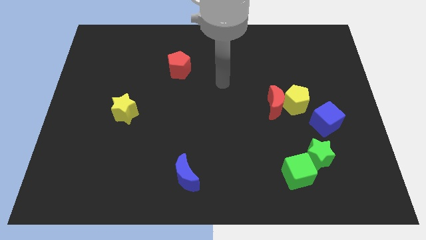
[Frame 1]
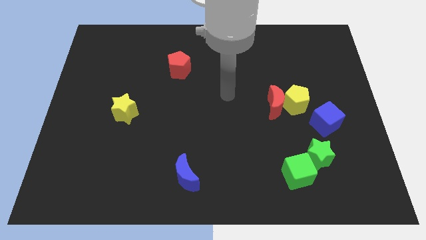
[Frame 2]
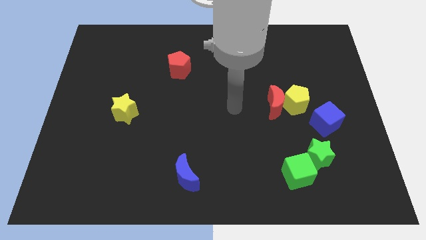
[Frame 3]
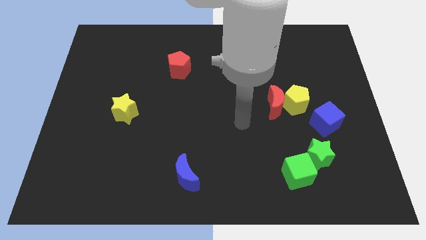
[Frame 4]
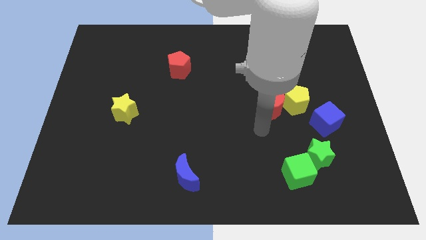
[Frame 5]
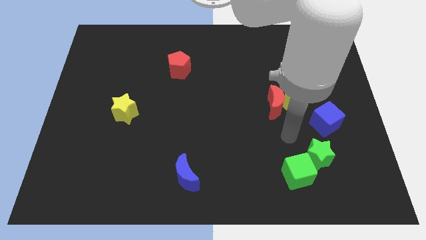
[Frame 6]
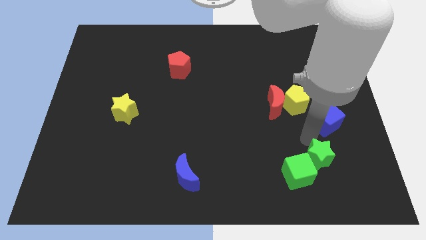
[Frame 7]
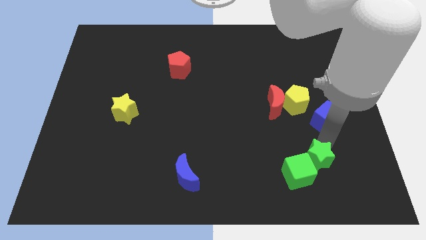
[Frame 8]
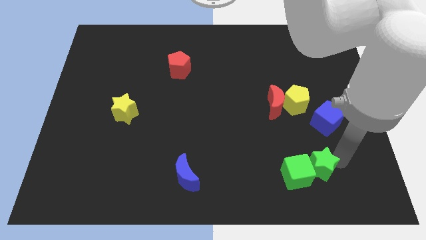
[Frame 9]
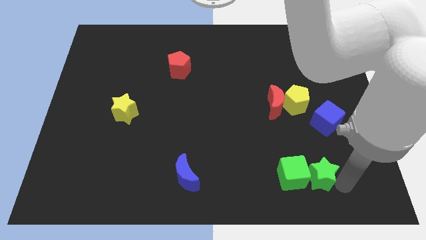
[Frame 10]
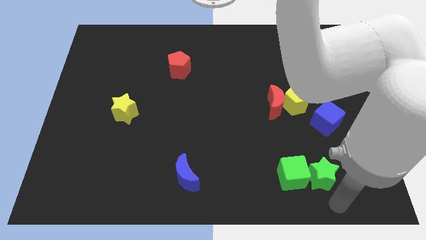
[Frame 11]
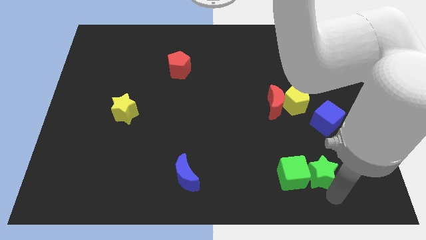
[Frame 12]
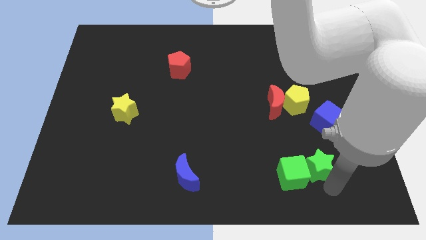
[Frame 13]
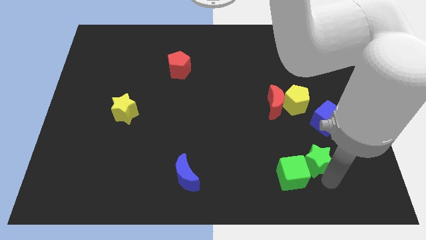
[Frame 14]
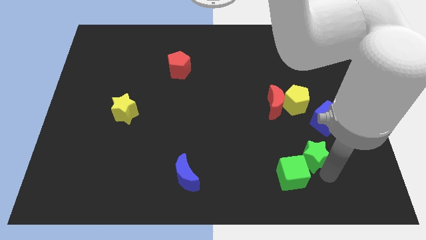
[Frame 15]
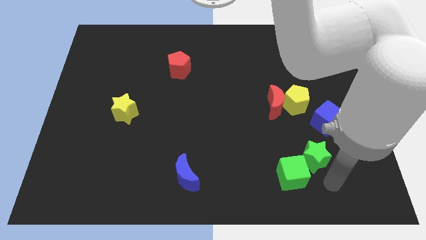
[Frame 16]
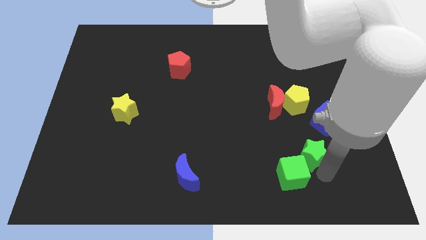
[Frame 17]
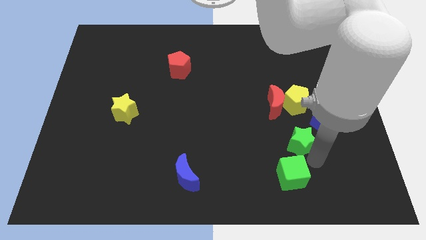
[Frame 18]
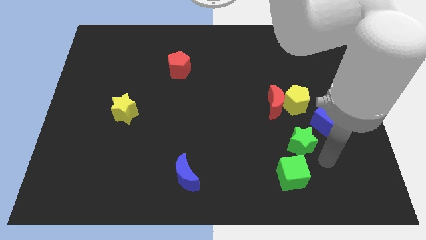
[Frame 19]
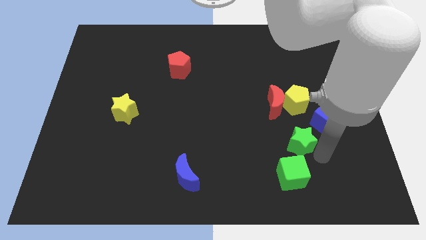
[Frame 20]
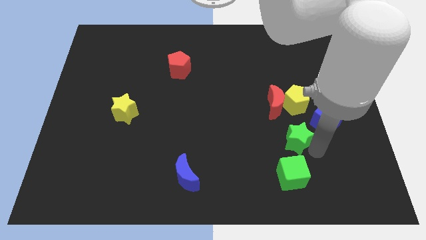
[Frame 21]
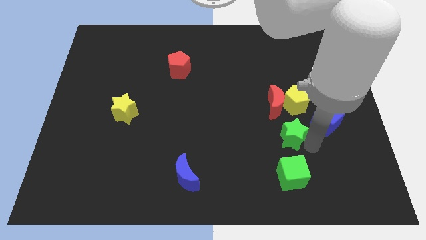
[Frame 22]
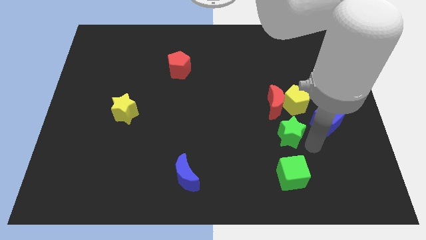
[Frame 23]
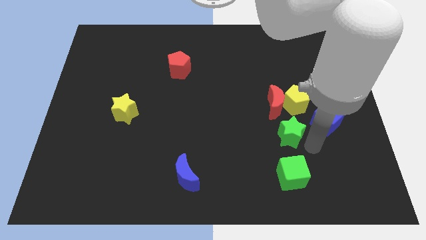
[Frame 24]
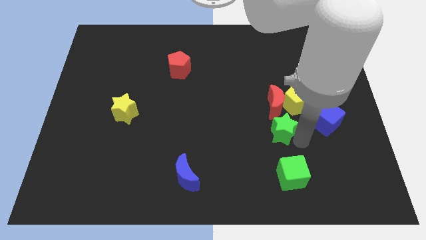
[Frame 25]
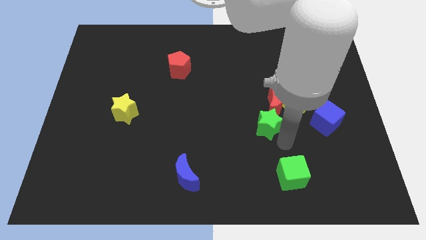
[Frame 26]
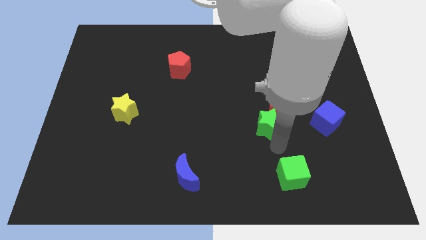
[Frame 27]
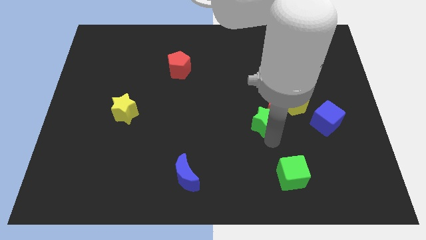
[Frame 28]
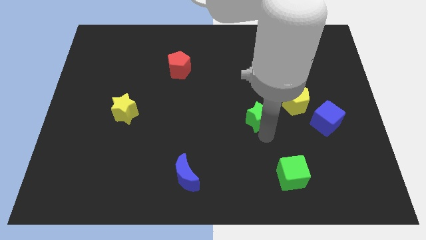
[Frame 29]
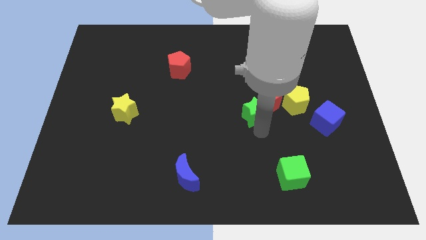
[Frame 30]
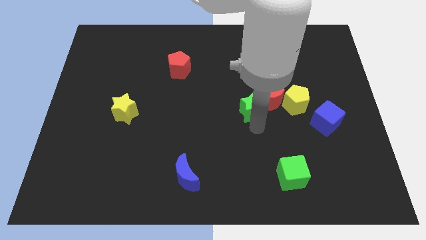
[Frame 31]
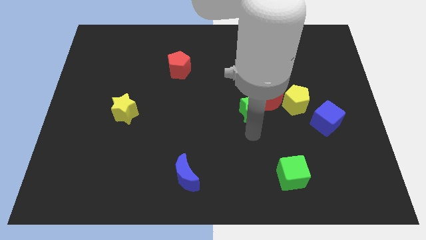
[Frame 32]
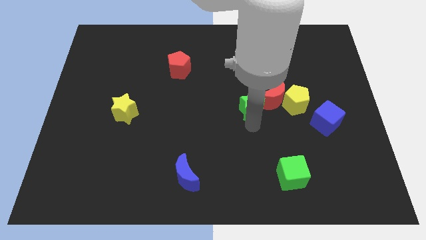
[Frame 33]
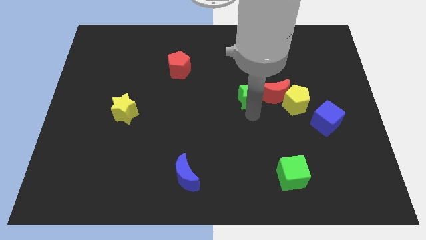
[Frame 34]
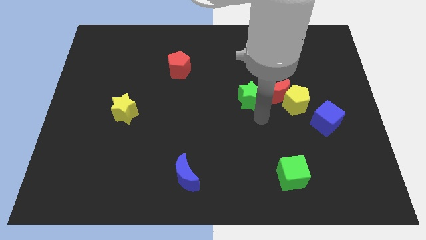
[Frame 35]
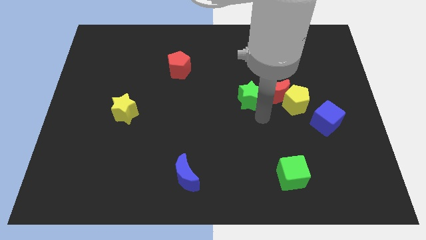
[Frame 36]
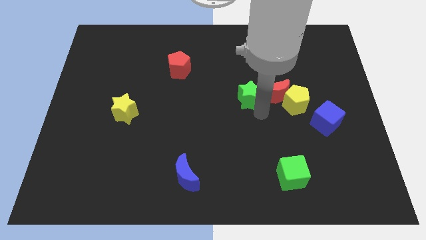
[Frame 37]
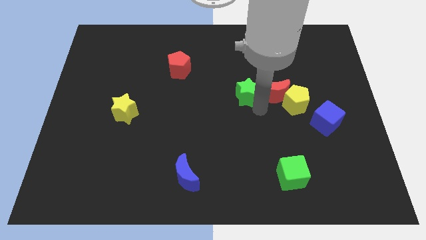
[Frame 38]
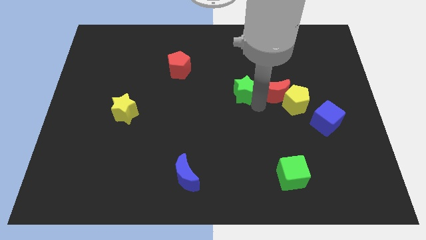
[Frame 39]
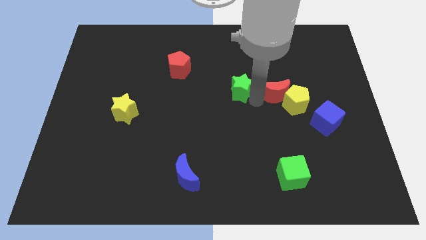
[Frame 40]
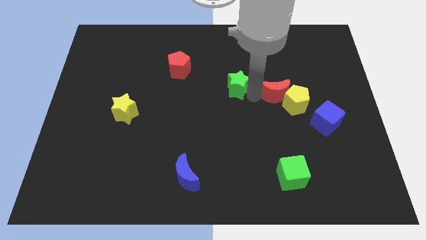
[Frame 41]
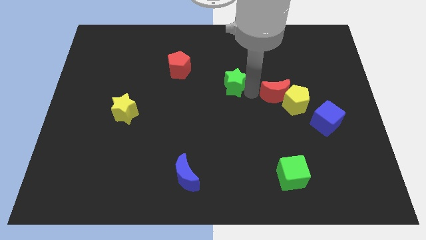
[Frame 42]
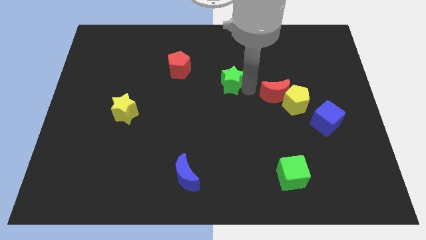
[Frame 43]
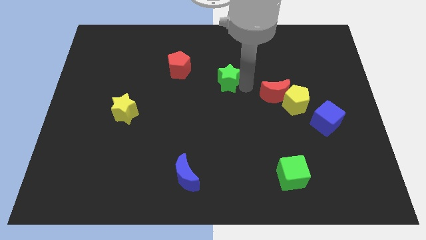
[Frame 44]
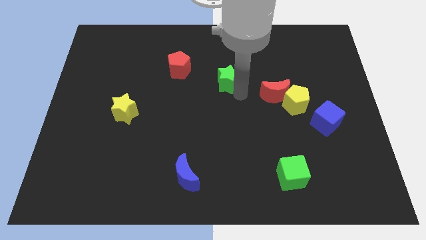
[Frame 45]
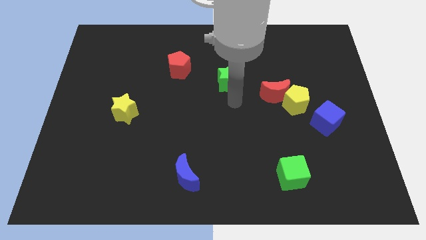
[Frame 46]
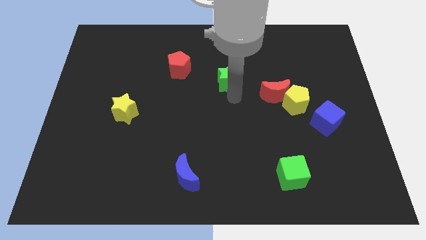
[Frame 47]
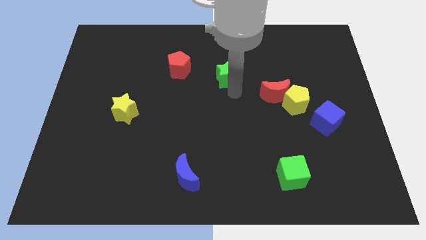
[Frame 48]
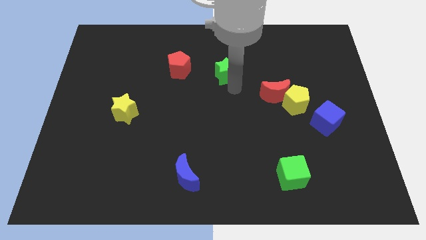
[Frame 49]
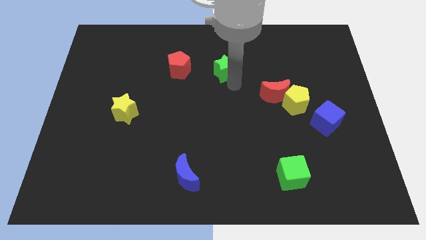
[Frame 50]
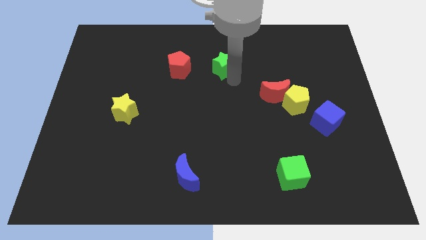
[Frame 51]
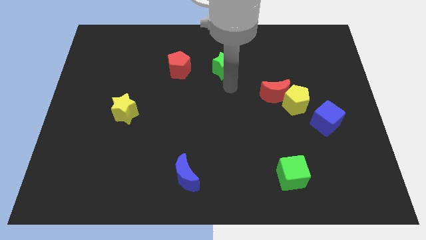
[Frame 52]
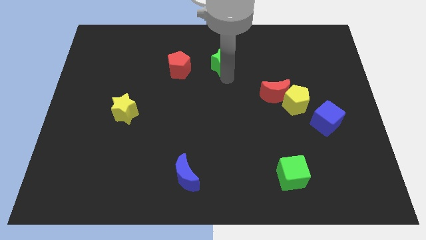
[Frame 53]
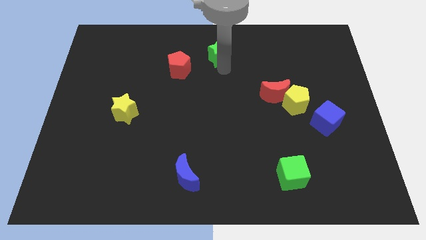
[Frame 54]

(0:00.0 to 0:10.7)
push the green star to the top

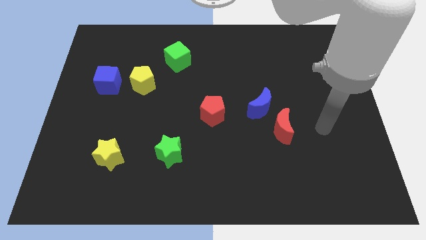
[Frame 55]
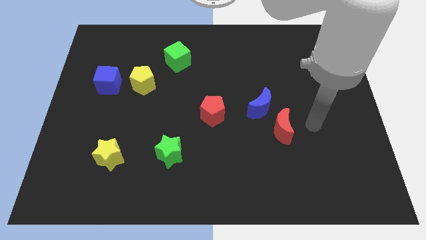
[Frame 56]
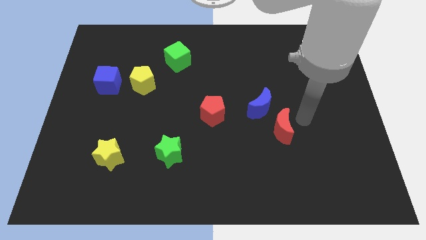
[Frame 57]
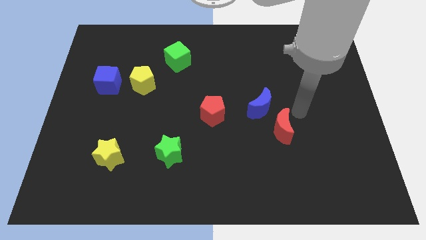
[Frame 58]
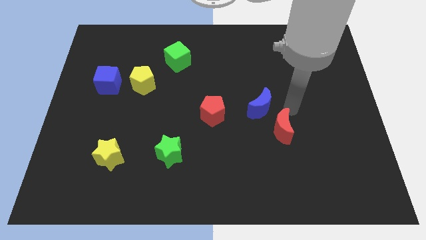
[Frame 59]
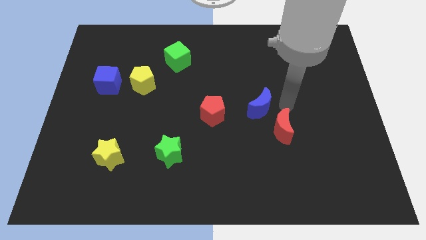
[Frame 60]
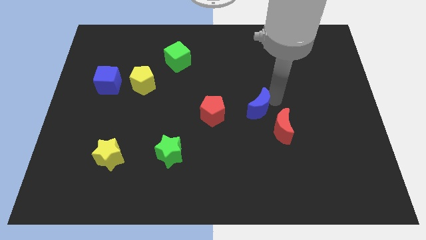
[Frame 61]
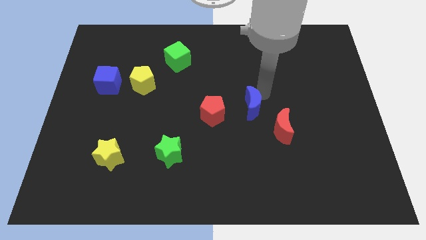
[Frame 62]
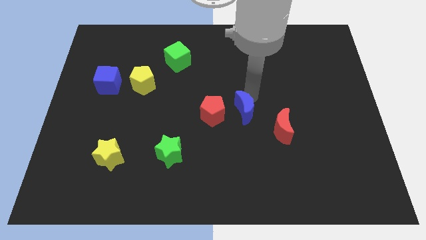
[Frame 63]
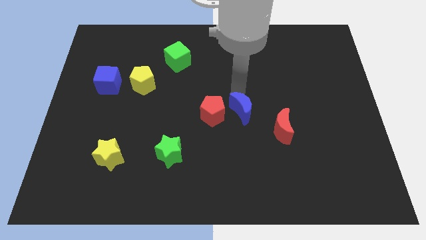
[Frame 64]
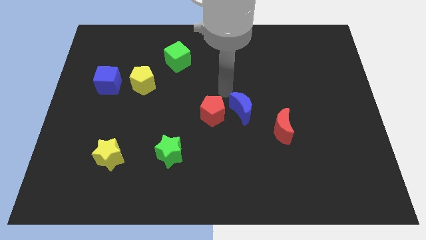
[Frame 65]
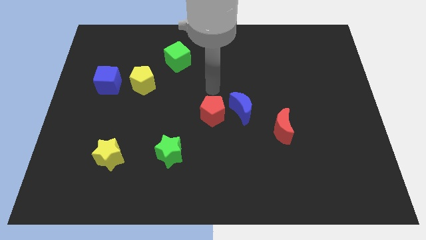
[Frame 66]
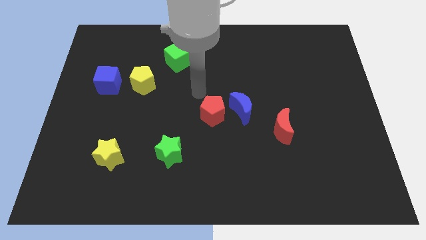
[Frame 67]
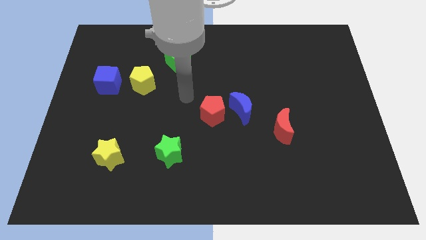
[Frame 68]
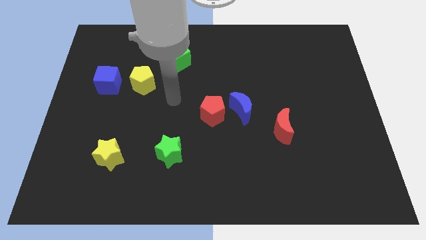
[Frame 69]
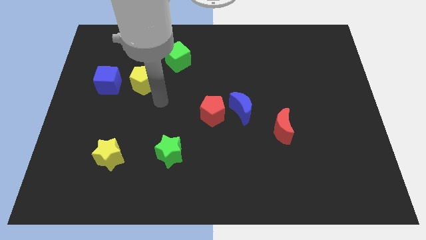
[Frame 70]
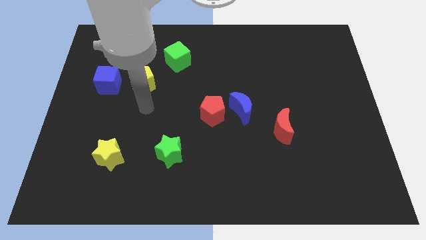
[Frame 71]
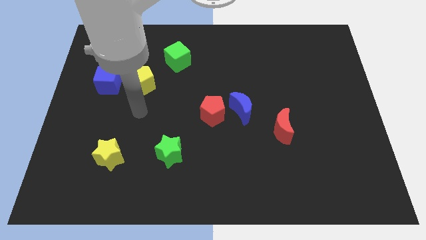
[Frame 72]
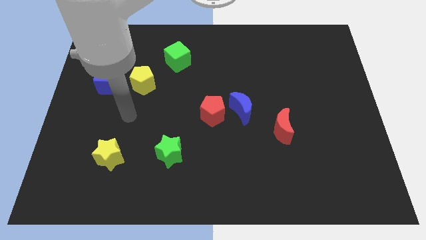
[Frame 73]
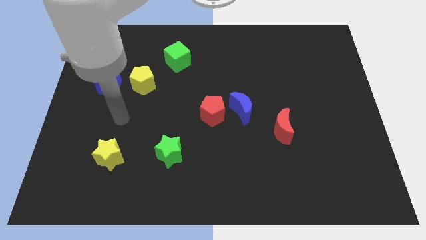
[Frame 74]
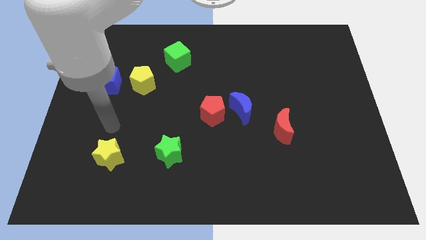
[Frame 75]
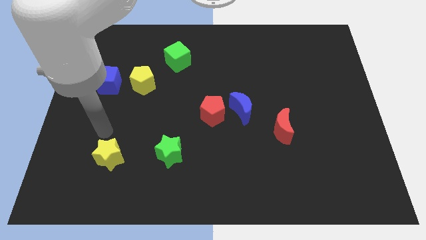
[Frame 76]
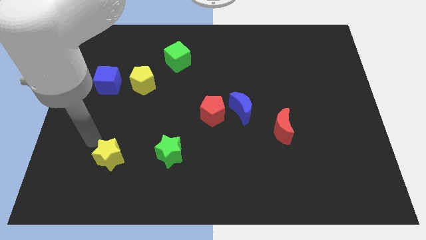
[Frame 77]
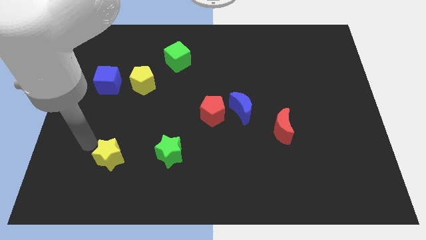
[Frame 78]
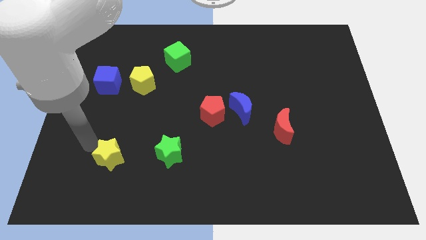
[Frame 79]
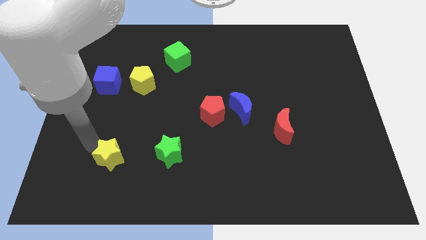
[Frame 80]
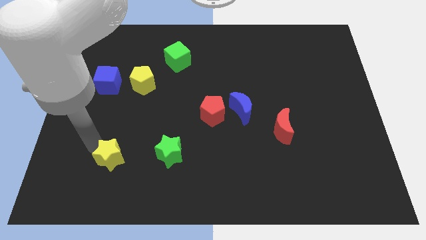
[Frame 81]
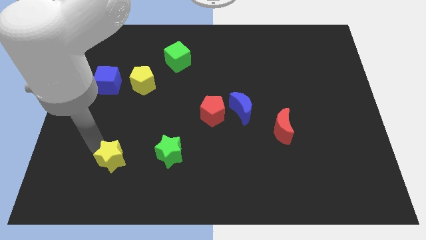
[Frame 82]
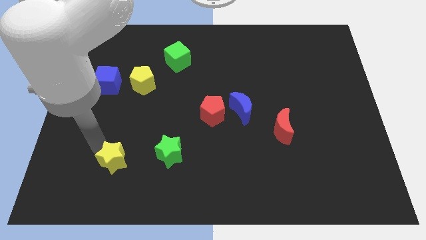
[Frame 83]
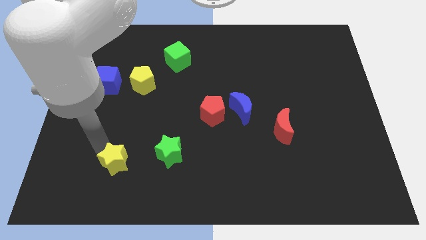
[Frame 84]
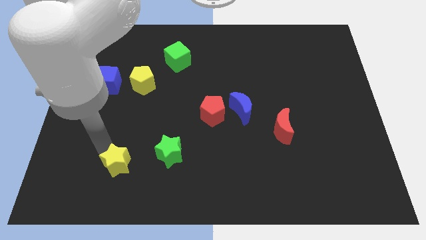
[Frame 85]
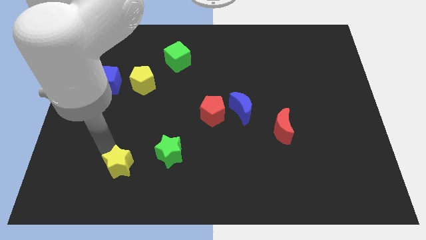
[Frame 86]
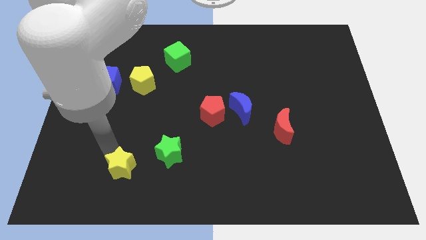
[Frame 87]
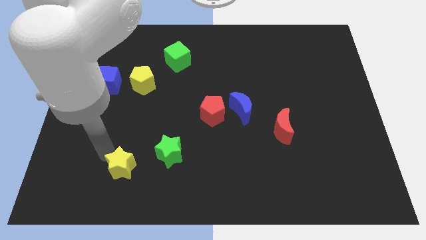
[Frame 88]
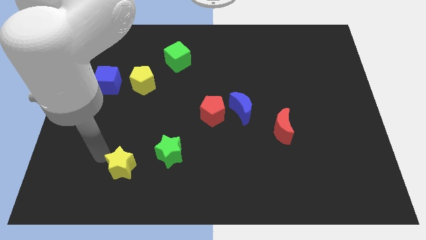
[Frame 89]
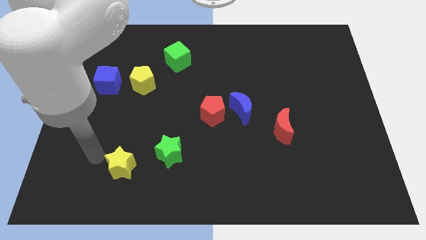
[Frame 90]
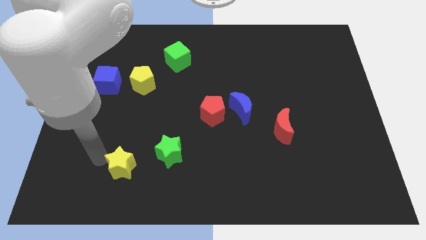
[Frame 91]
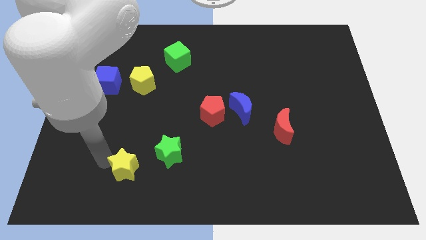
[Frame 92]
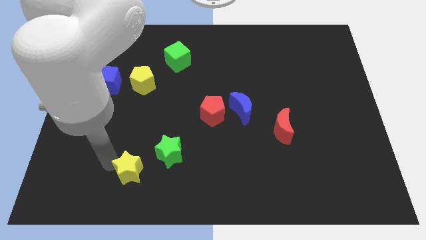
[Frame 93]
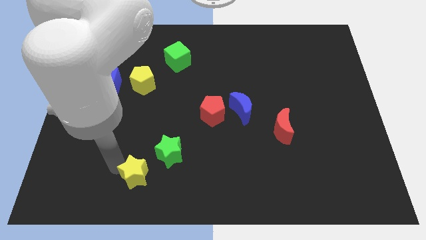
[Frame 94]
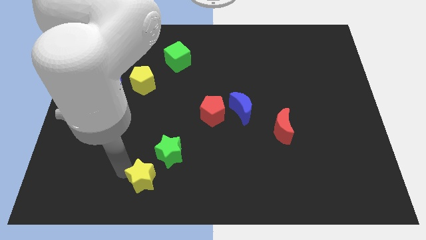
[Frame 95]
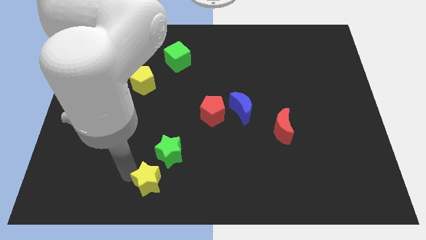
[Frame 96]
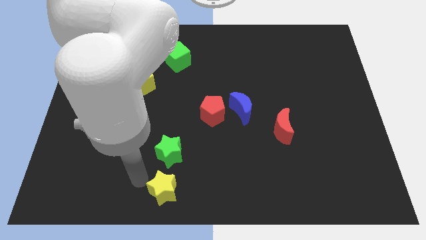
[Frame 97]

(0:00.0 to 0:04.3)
put the yellow star to the bottom side
